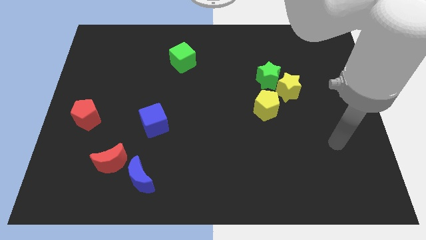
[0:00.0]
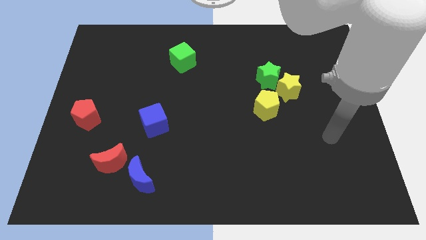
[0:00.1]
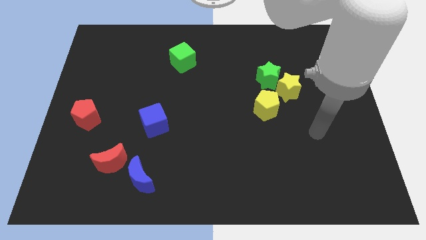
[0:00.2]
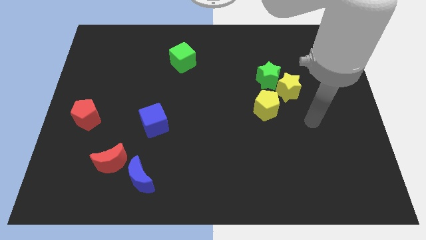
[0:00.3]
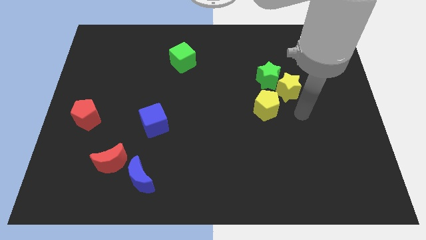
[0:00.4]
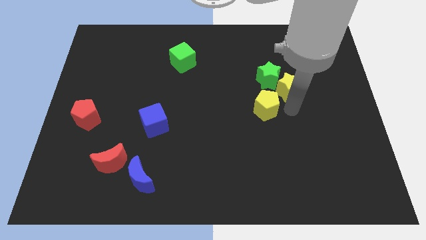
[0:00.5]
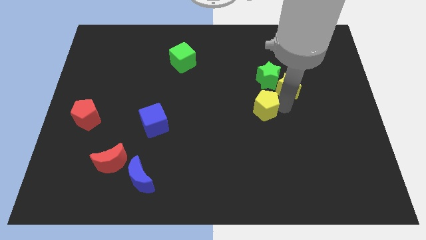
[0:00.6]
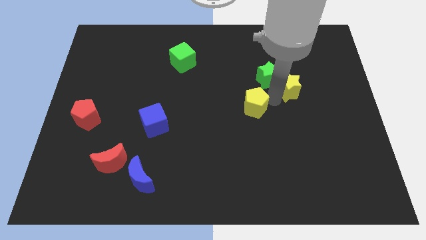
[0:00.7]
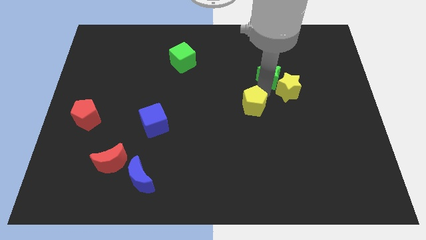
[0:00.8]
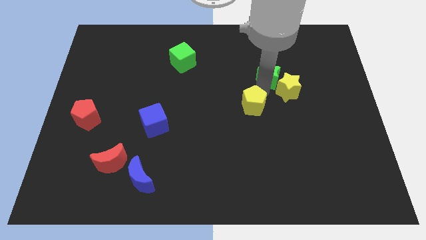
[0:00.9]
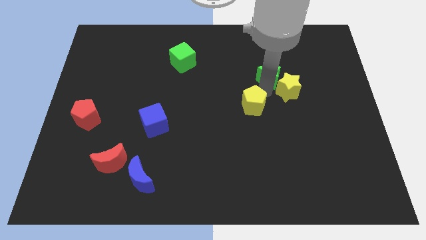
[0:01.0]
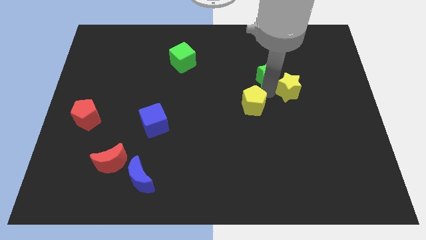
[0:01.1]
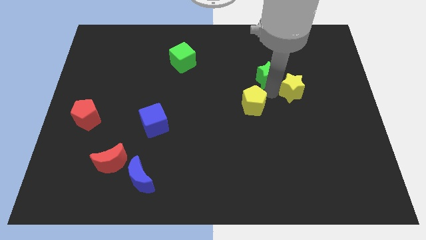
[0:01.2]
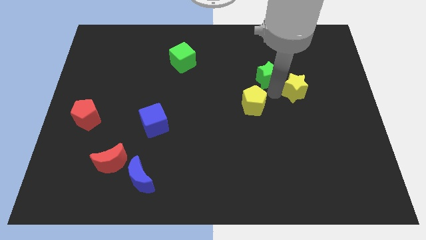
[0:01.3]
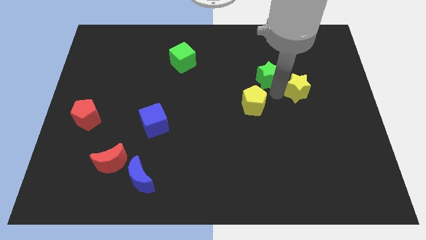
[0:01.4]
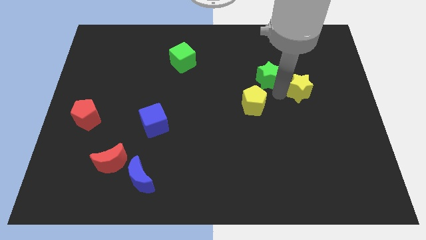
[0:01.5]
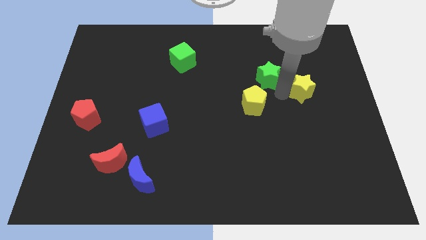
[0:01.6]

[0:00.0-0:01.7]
pull the yellow star apart from the green star and yellow pentagon

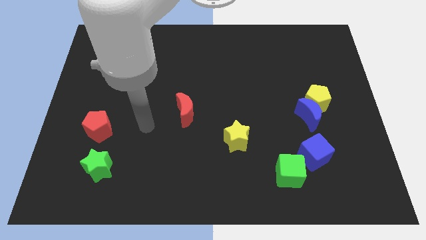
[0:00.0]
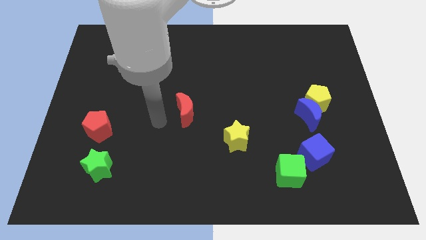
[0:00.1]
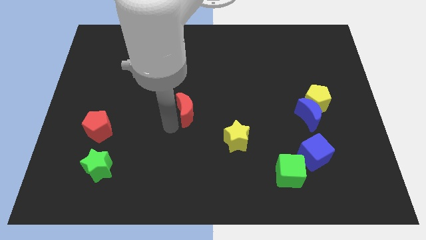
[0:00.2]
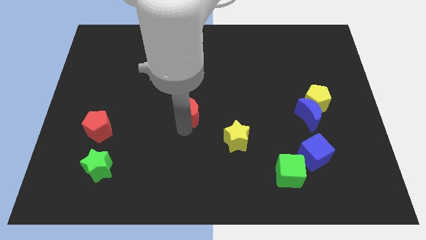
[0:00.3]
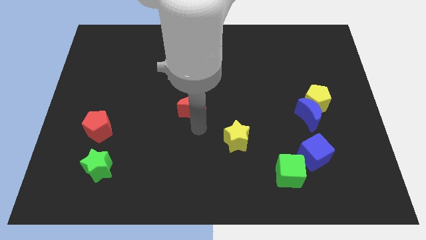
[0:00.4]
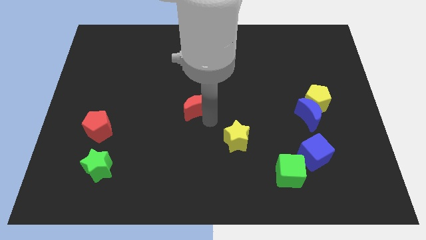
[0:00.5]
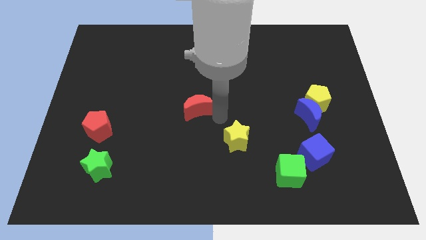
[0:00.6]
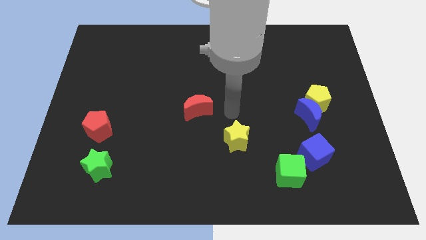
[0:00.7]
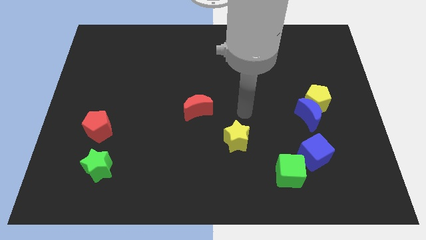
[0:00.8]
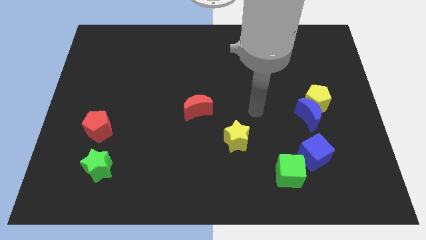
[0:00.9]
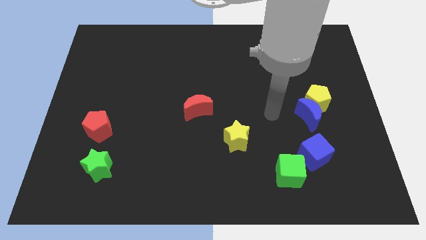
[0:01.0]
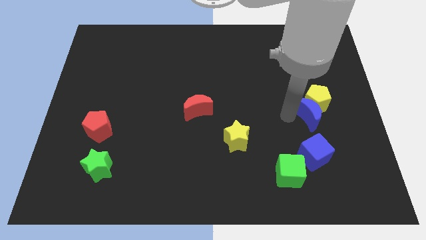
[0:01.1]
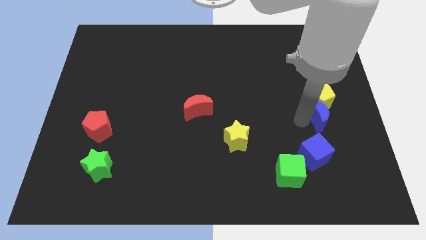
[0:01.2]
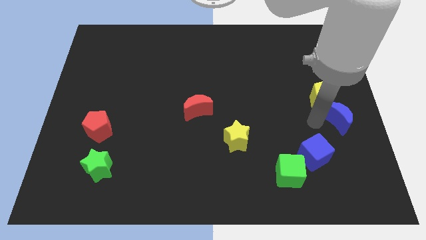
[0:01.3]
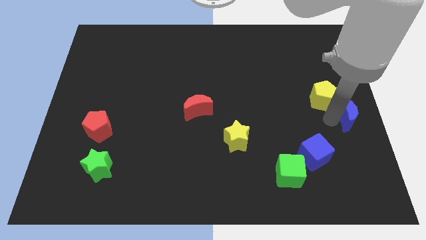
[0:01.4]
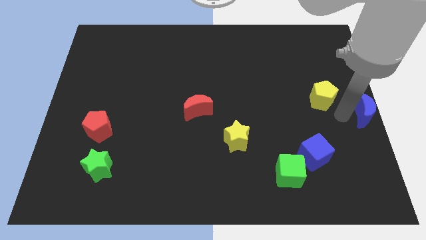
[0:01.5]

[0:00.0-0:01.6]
move the yellow pentagon away from the blue moon

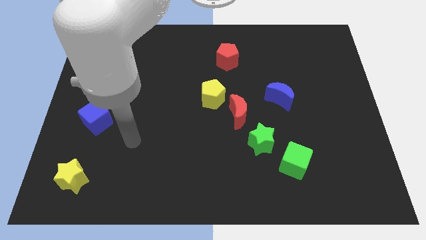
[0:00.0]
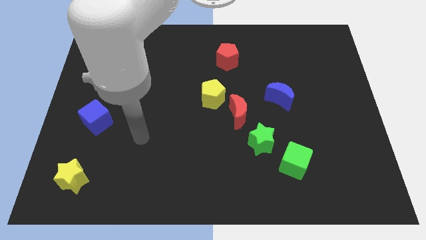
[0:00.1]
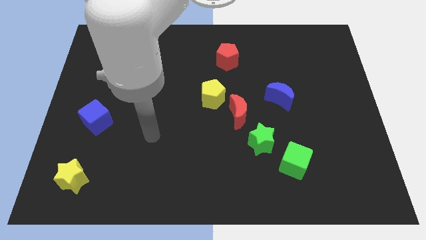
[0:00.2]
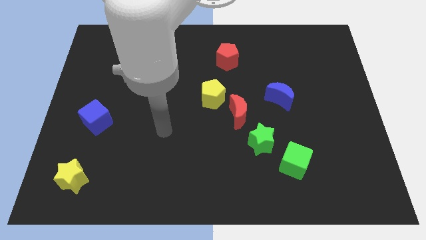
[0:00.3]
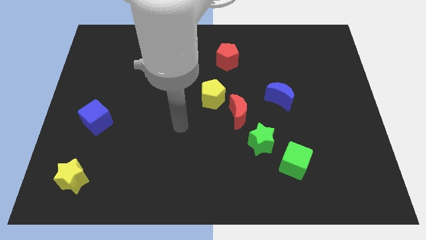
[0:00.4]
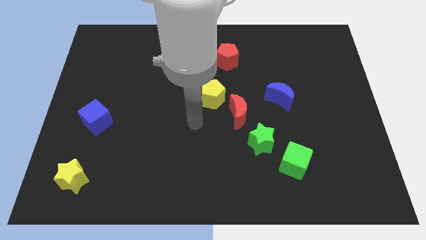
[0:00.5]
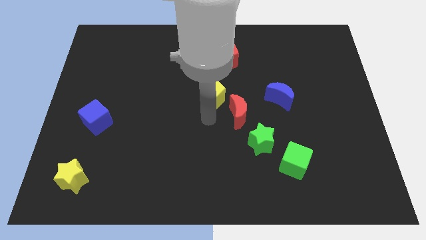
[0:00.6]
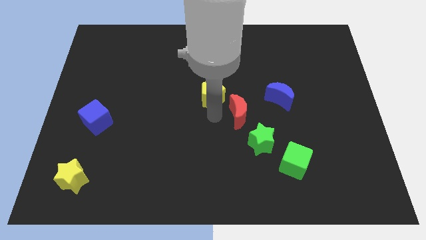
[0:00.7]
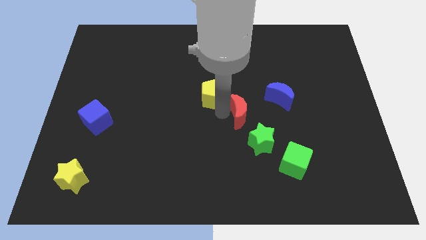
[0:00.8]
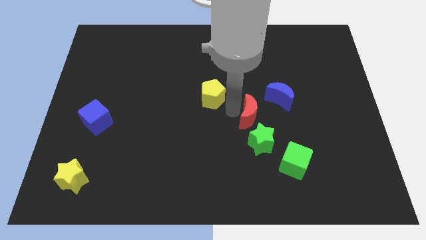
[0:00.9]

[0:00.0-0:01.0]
pull the yellow pentagon apart from the red moon

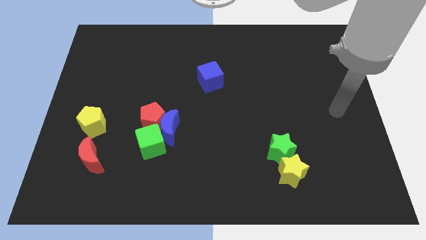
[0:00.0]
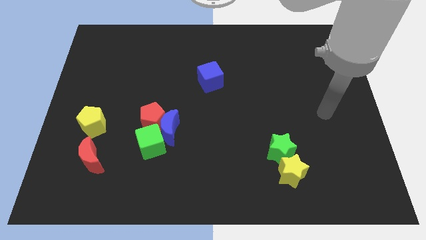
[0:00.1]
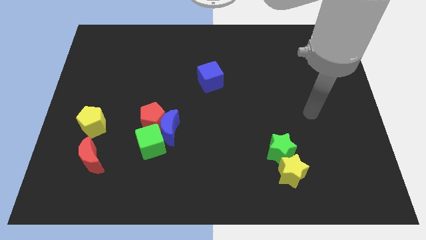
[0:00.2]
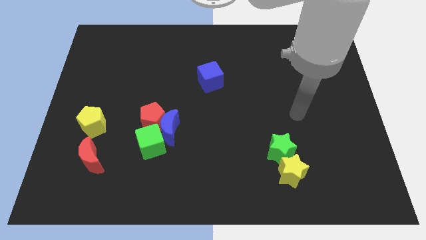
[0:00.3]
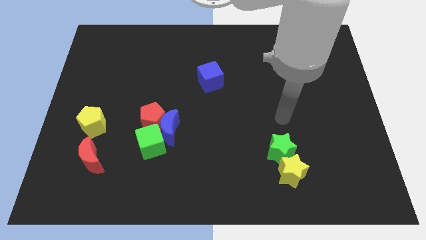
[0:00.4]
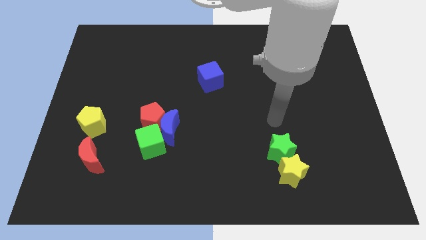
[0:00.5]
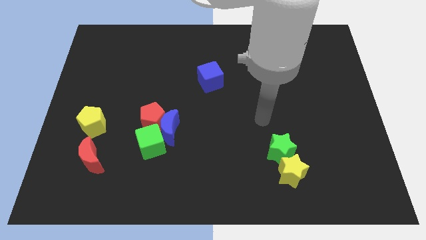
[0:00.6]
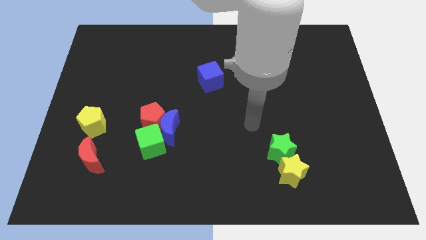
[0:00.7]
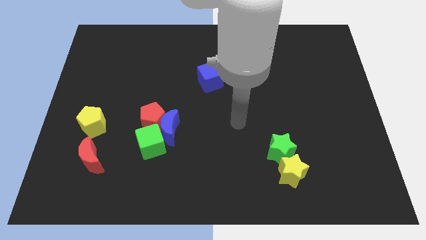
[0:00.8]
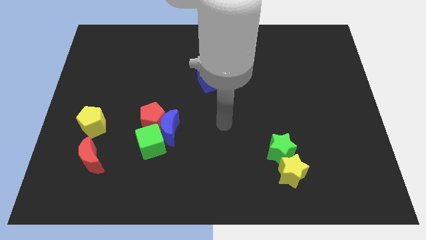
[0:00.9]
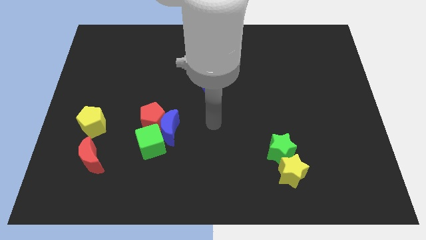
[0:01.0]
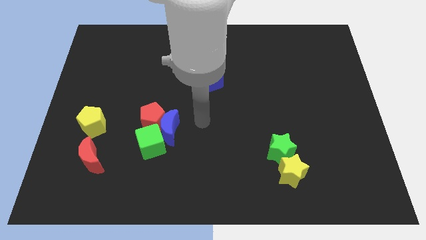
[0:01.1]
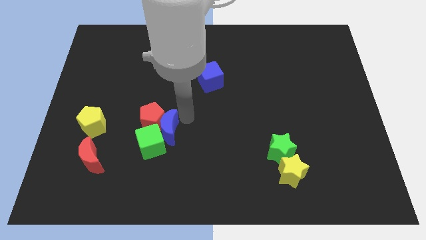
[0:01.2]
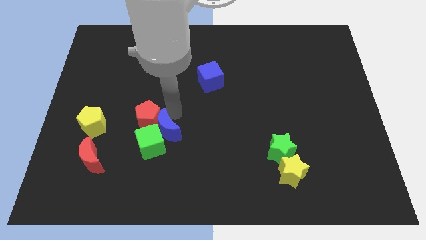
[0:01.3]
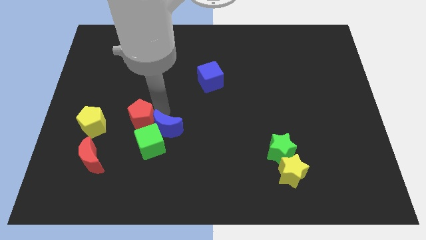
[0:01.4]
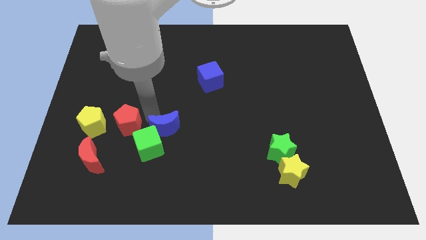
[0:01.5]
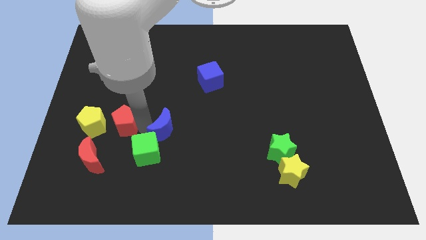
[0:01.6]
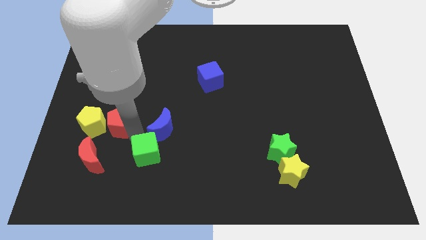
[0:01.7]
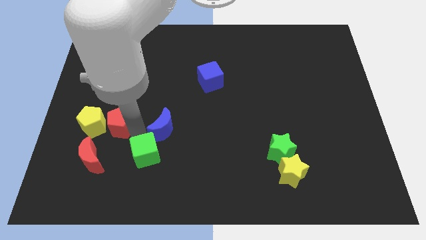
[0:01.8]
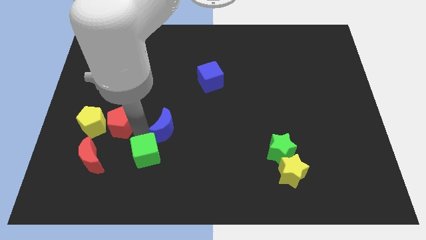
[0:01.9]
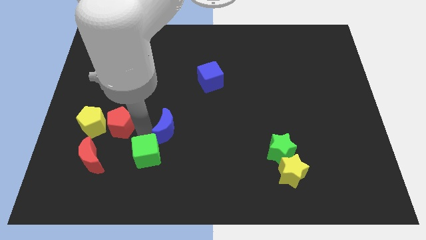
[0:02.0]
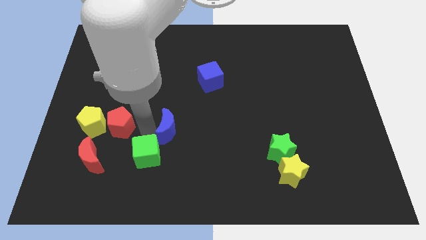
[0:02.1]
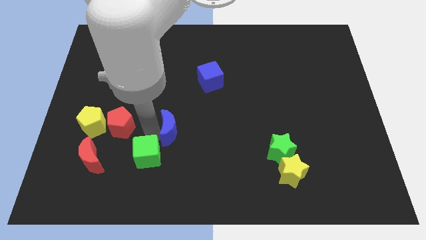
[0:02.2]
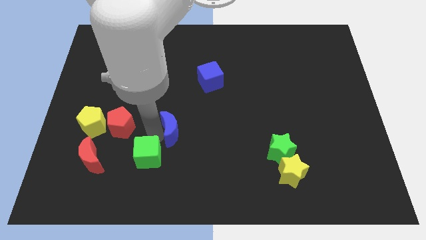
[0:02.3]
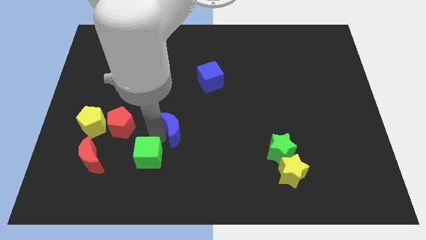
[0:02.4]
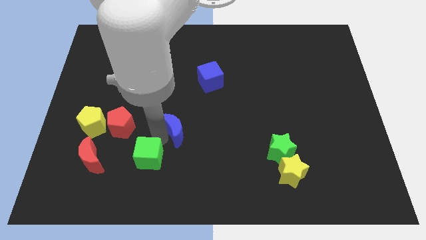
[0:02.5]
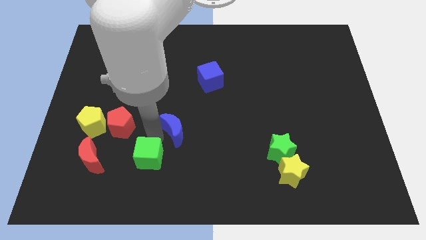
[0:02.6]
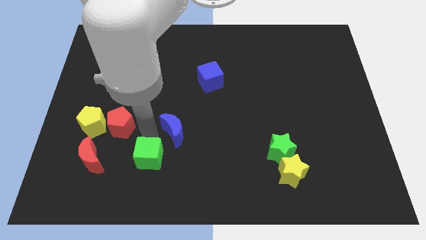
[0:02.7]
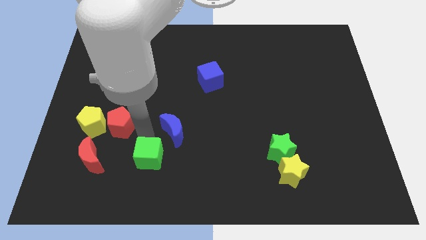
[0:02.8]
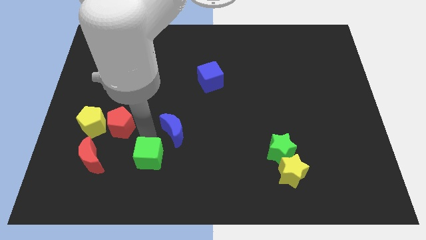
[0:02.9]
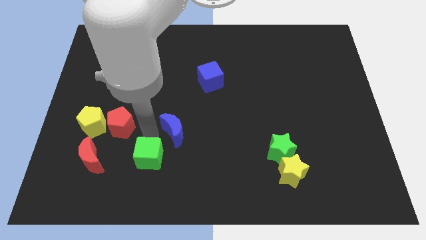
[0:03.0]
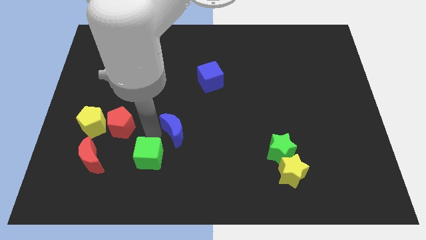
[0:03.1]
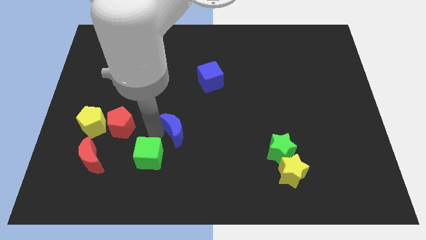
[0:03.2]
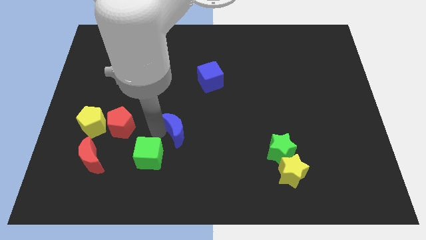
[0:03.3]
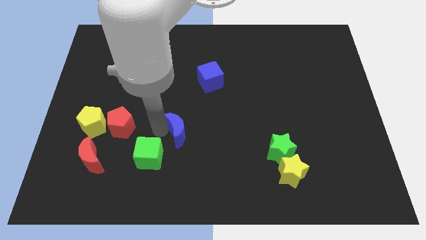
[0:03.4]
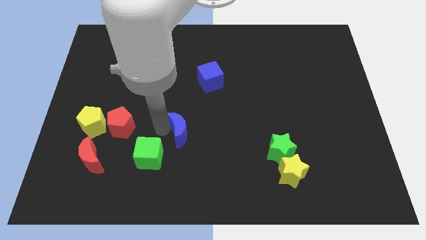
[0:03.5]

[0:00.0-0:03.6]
move the blue moon away from the red pentagon and green cube

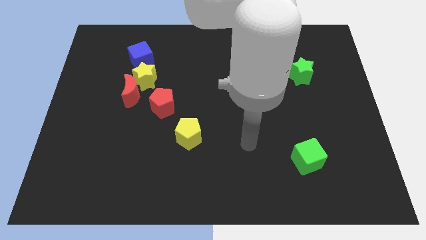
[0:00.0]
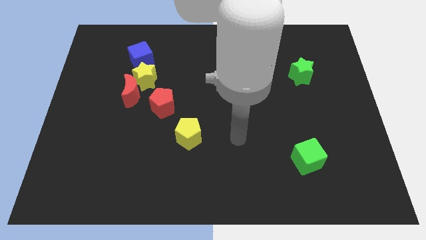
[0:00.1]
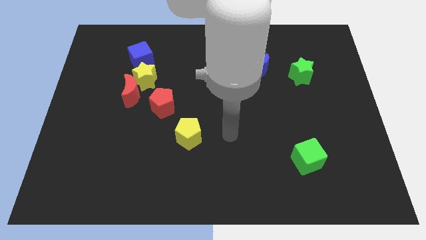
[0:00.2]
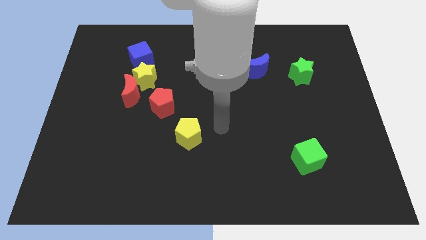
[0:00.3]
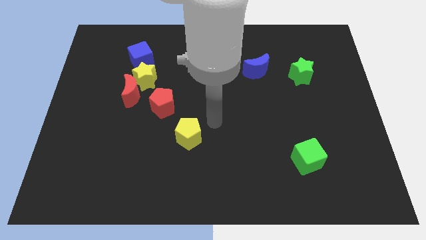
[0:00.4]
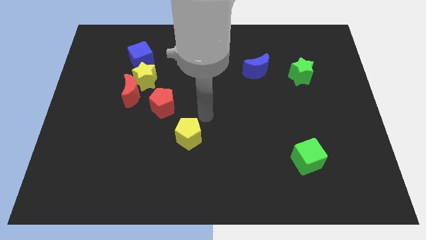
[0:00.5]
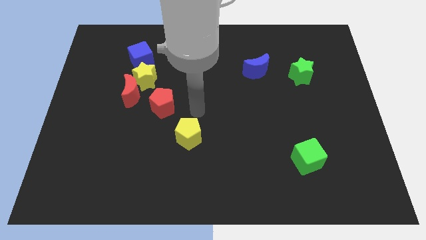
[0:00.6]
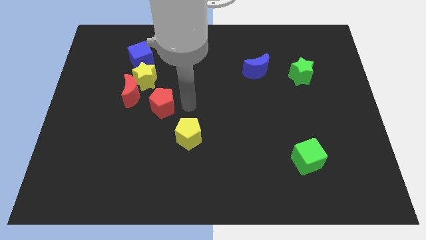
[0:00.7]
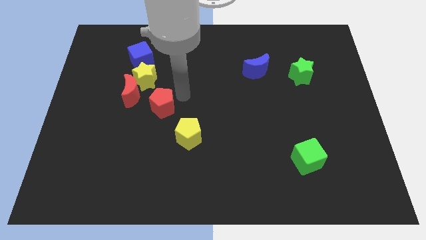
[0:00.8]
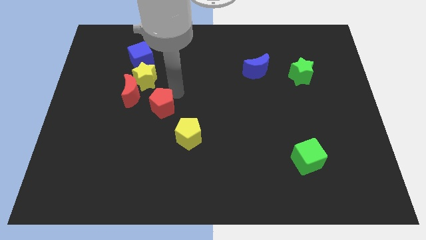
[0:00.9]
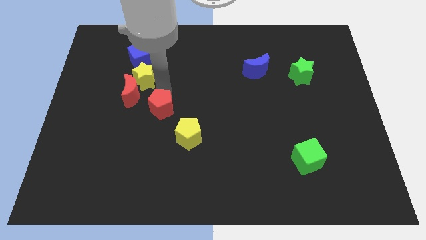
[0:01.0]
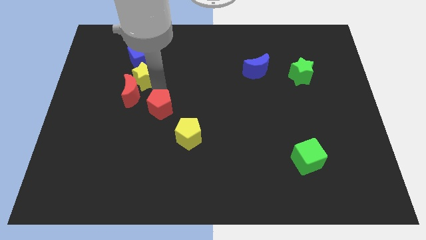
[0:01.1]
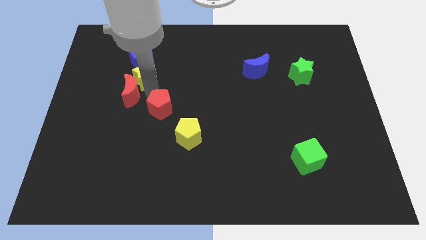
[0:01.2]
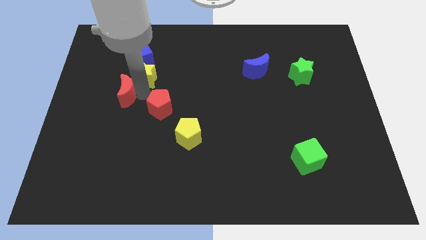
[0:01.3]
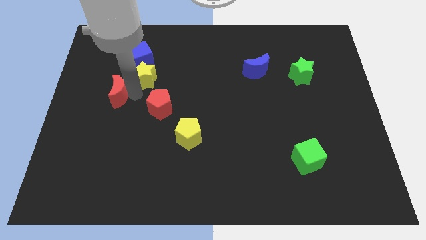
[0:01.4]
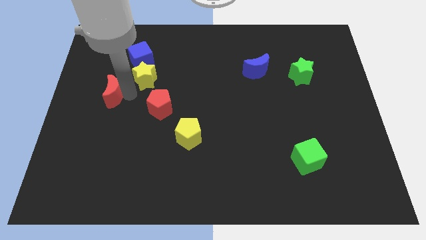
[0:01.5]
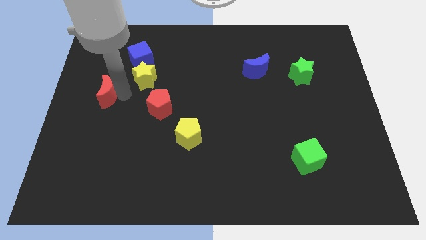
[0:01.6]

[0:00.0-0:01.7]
separate the red moon from the yellow star and red pentagon
